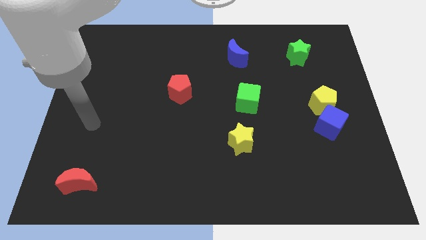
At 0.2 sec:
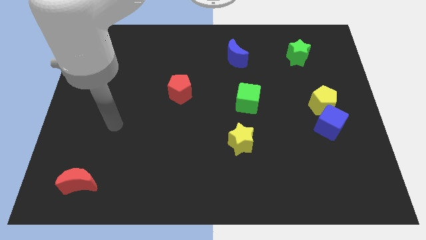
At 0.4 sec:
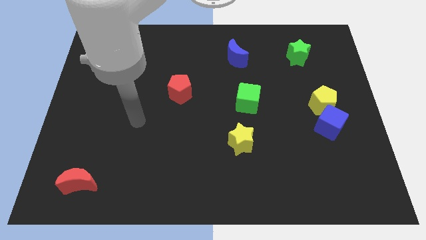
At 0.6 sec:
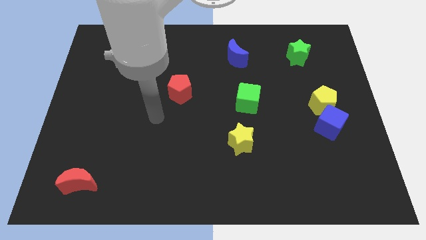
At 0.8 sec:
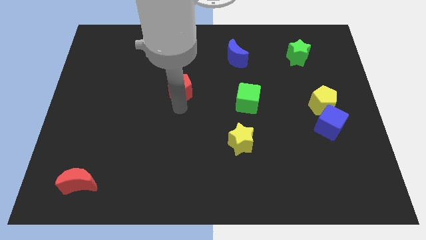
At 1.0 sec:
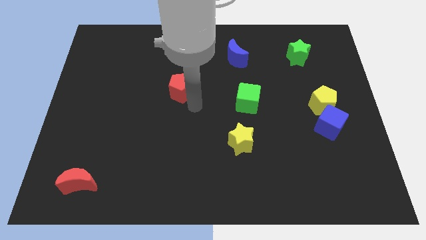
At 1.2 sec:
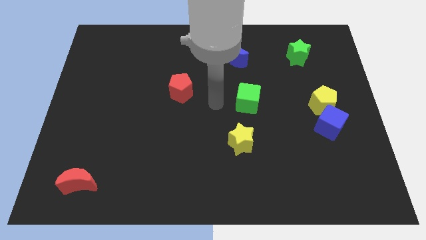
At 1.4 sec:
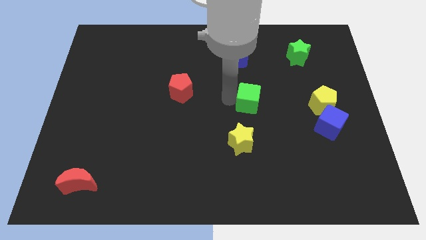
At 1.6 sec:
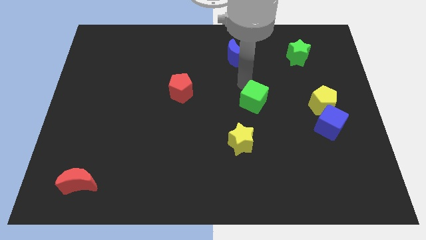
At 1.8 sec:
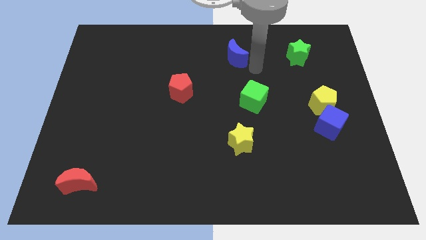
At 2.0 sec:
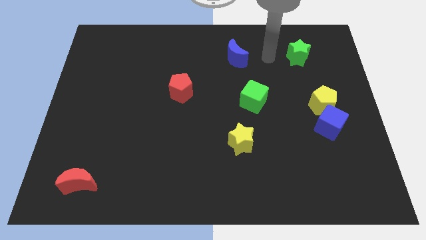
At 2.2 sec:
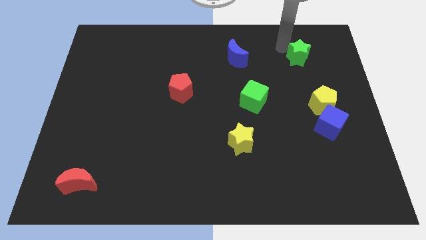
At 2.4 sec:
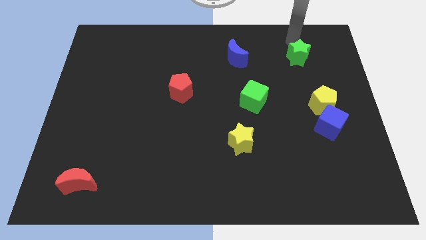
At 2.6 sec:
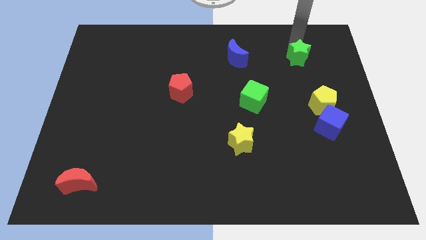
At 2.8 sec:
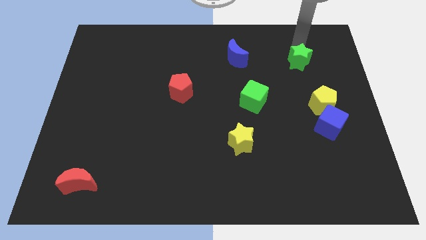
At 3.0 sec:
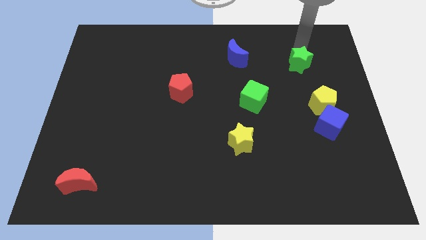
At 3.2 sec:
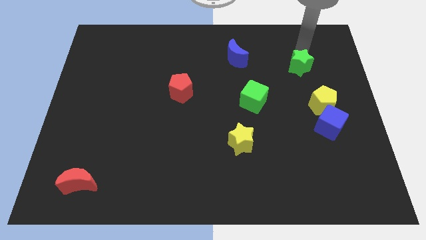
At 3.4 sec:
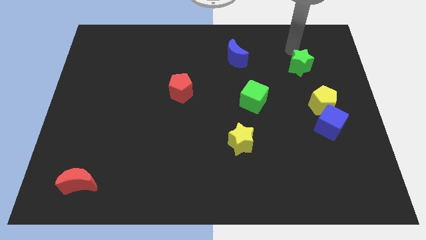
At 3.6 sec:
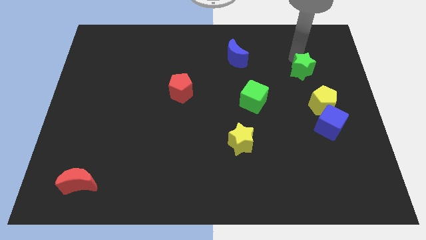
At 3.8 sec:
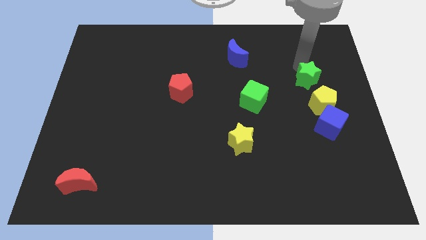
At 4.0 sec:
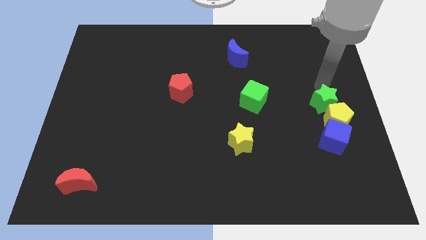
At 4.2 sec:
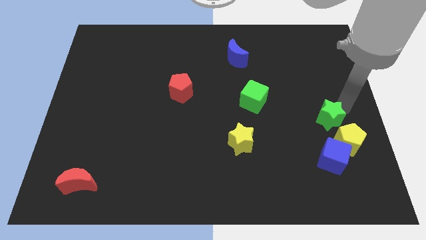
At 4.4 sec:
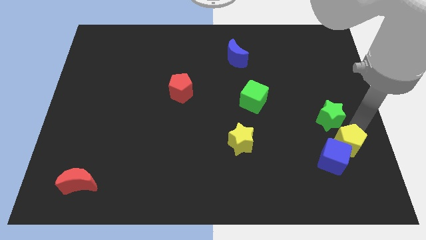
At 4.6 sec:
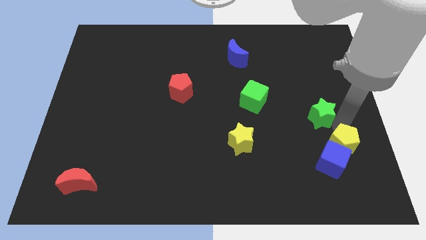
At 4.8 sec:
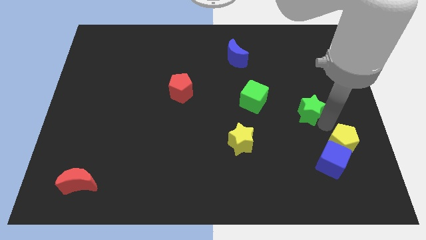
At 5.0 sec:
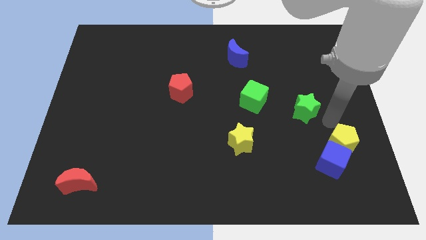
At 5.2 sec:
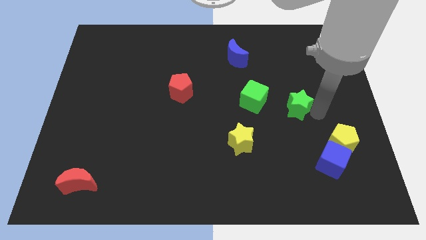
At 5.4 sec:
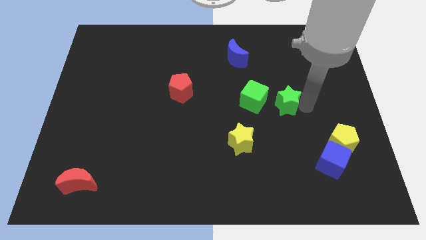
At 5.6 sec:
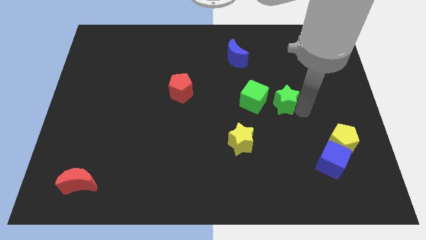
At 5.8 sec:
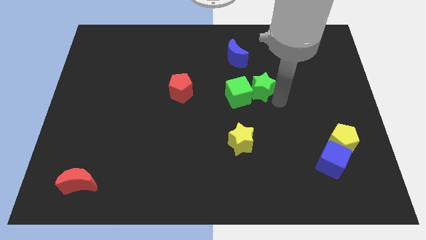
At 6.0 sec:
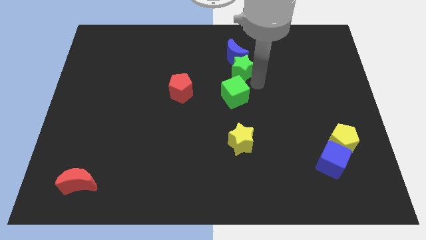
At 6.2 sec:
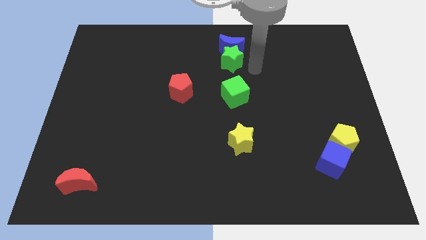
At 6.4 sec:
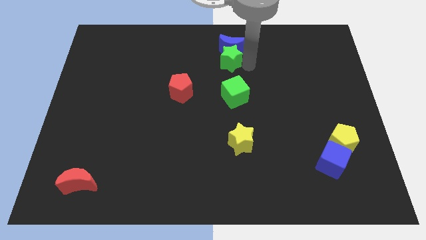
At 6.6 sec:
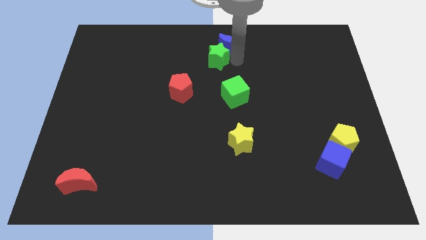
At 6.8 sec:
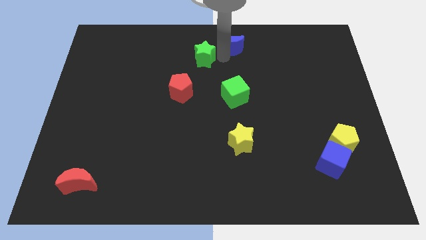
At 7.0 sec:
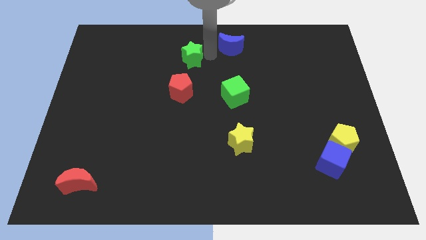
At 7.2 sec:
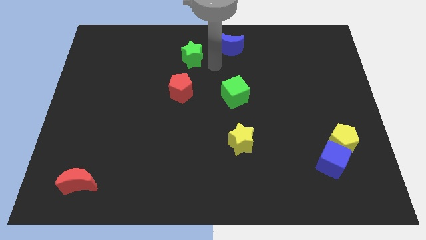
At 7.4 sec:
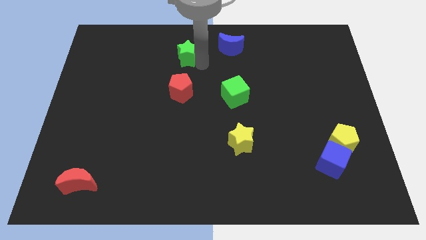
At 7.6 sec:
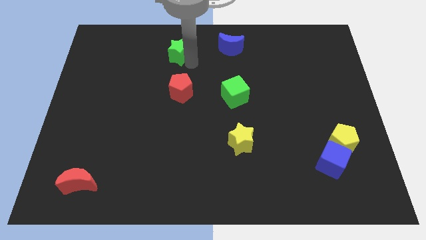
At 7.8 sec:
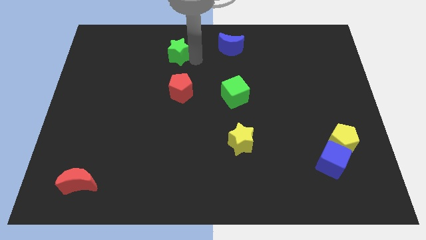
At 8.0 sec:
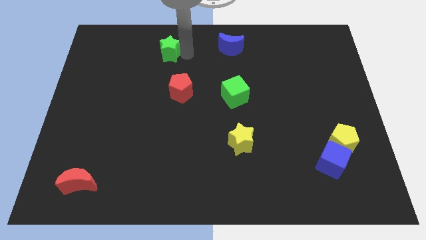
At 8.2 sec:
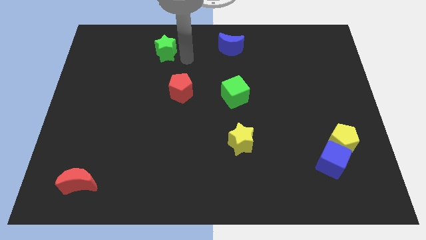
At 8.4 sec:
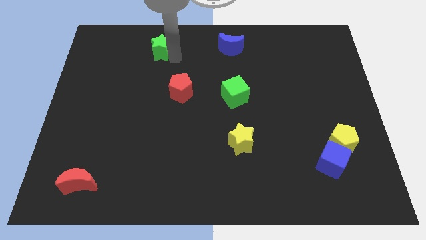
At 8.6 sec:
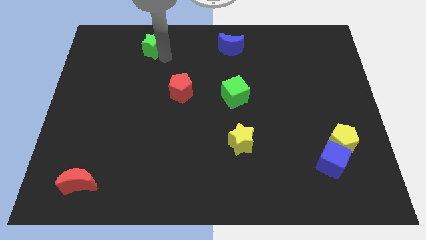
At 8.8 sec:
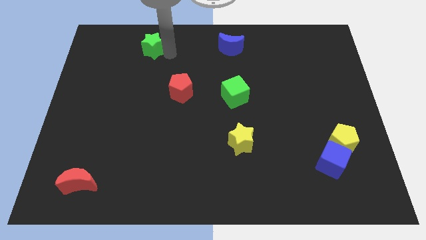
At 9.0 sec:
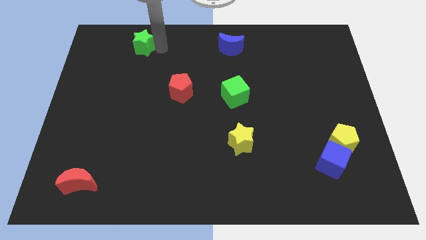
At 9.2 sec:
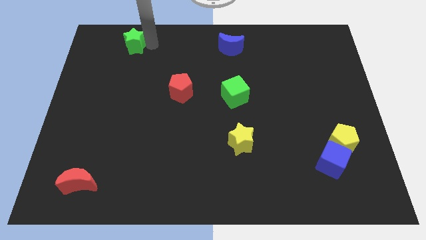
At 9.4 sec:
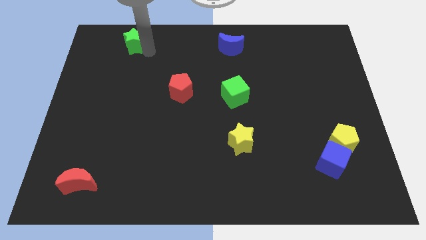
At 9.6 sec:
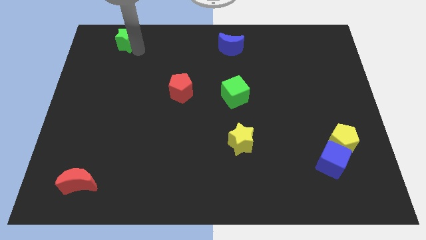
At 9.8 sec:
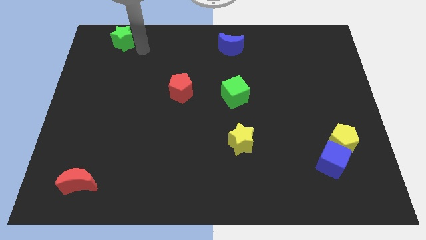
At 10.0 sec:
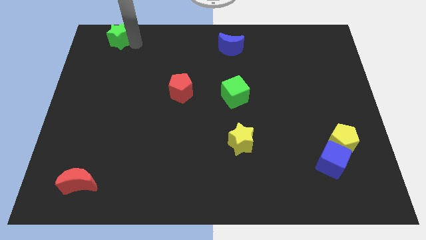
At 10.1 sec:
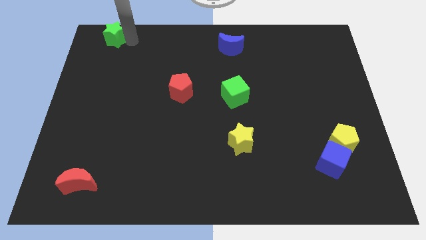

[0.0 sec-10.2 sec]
put the green star to the top left

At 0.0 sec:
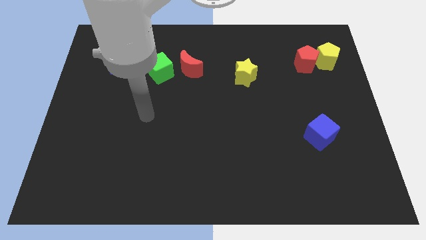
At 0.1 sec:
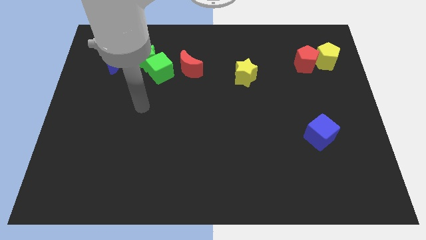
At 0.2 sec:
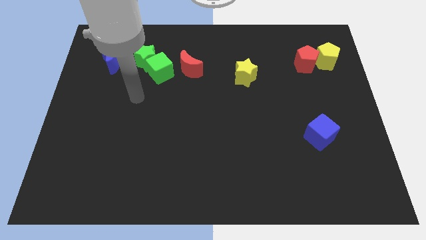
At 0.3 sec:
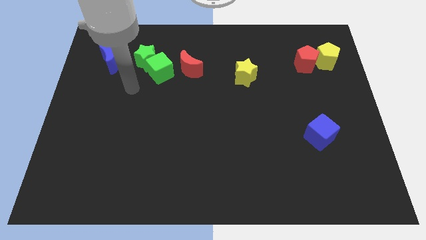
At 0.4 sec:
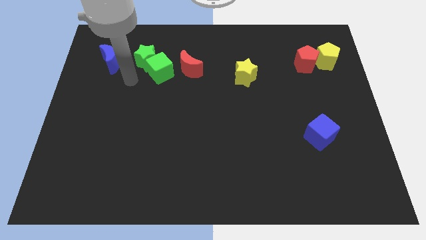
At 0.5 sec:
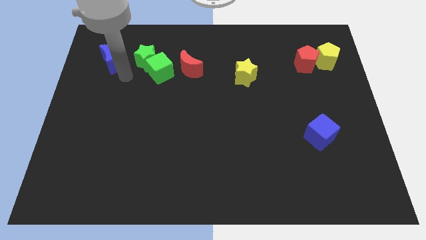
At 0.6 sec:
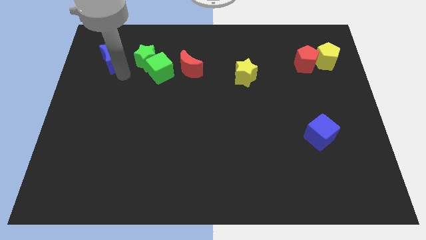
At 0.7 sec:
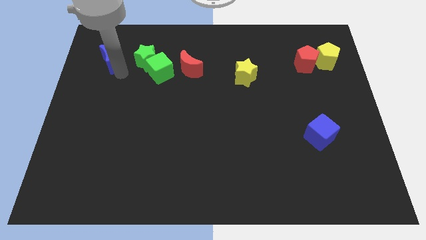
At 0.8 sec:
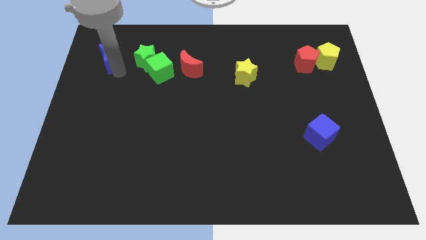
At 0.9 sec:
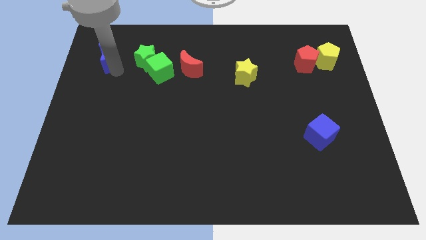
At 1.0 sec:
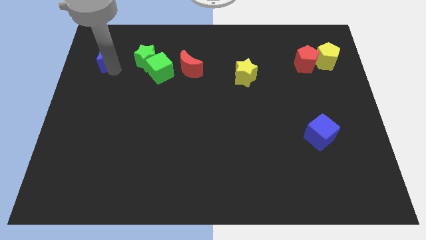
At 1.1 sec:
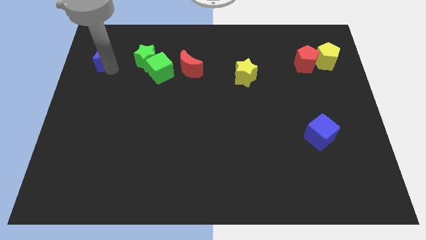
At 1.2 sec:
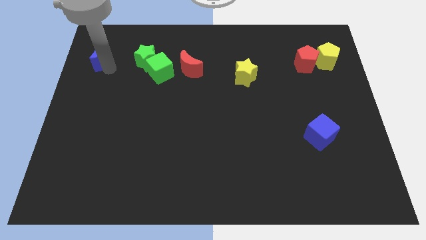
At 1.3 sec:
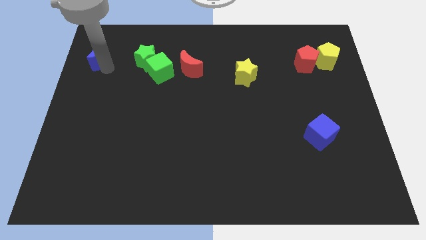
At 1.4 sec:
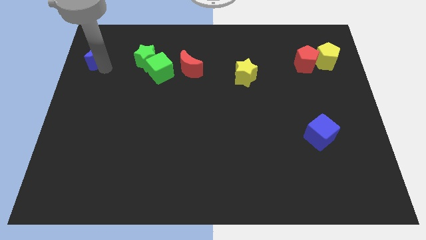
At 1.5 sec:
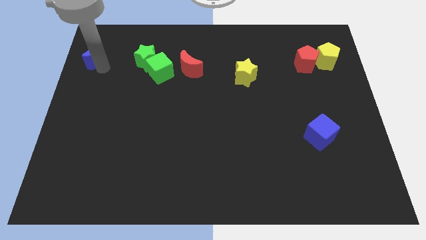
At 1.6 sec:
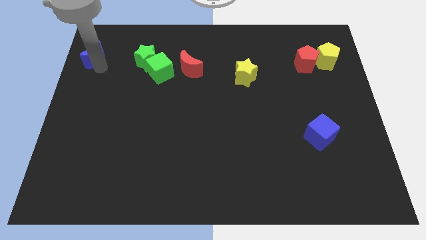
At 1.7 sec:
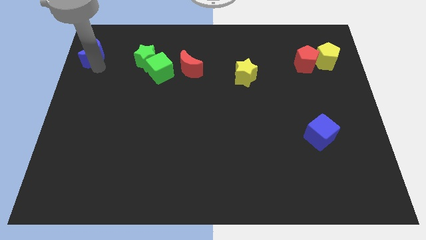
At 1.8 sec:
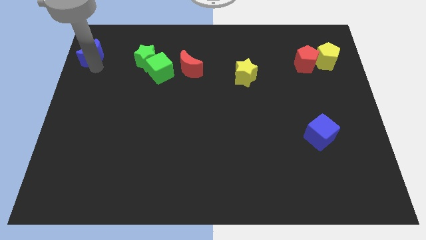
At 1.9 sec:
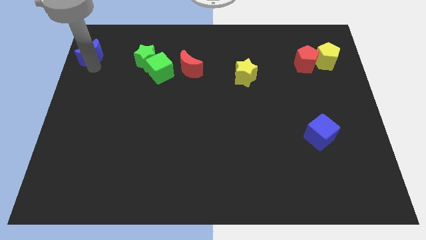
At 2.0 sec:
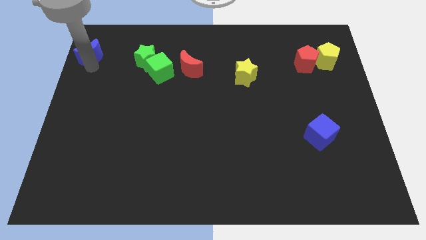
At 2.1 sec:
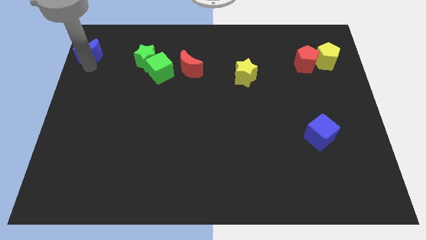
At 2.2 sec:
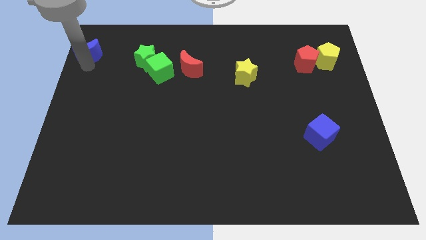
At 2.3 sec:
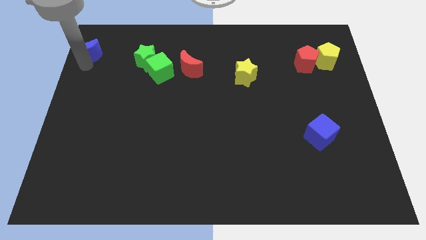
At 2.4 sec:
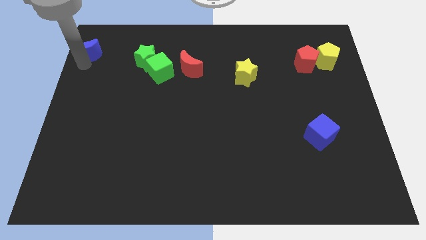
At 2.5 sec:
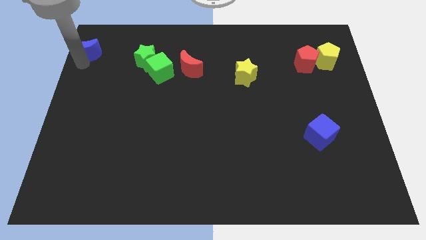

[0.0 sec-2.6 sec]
move the blue moon to the top left corner
